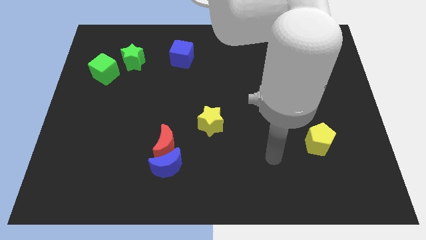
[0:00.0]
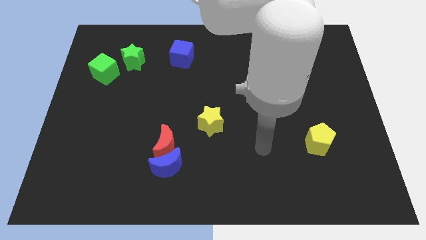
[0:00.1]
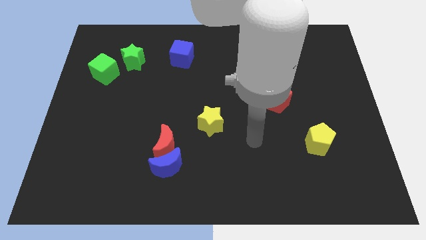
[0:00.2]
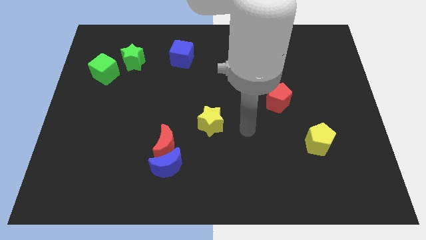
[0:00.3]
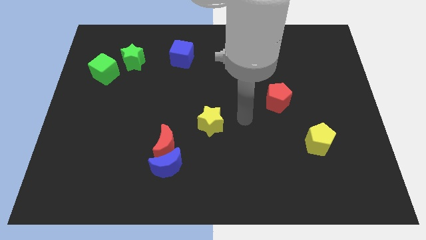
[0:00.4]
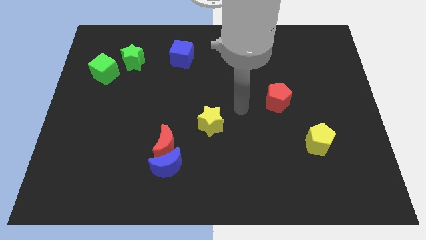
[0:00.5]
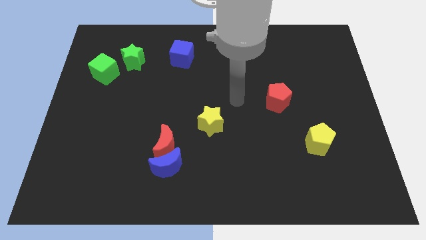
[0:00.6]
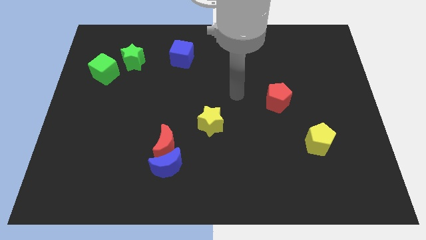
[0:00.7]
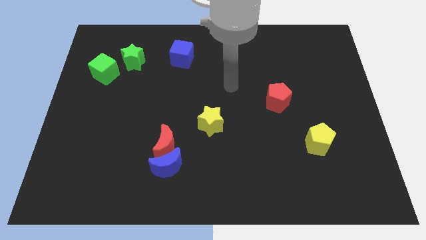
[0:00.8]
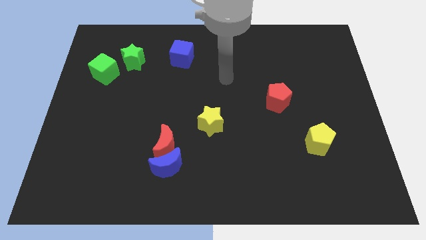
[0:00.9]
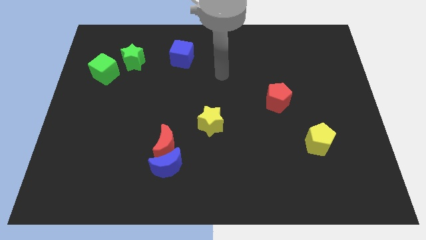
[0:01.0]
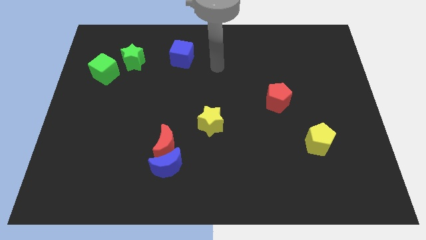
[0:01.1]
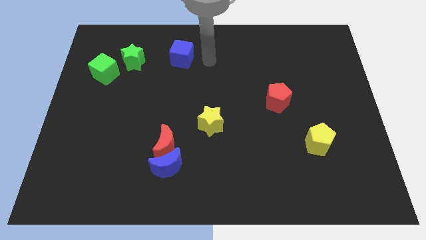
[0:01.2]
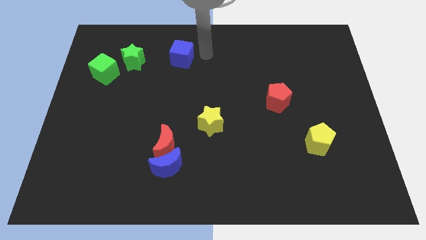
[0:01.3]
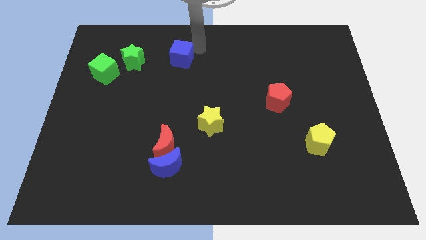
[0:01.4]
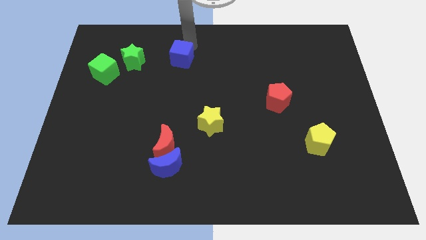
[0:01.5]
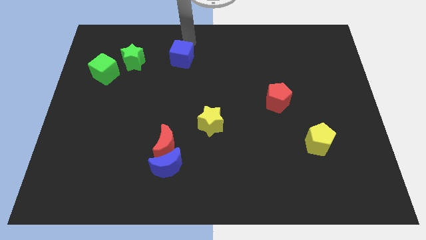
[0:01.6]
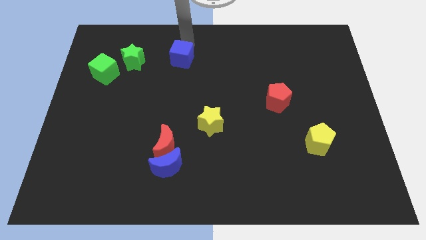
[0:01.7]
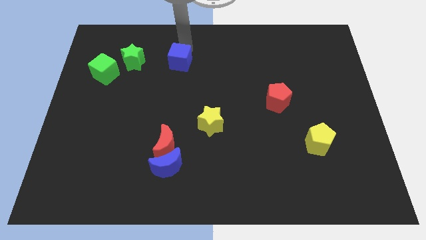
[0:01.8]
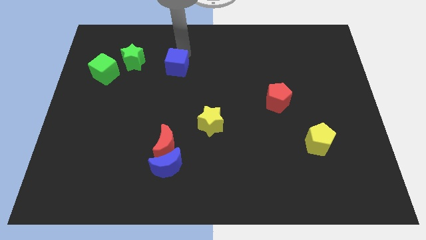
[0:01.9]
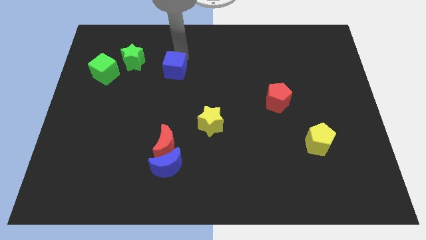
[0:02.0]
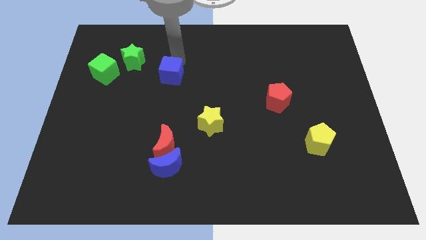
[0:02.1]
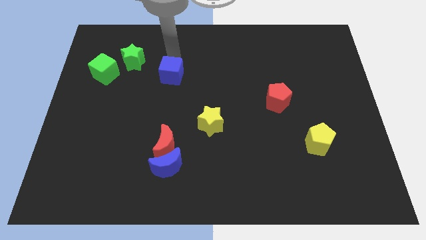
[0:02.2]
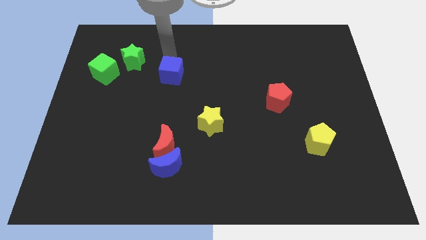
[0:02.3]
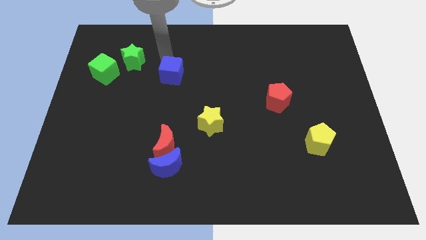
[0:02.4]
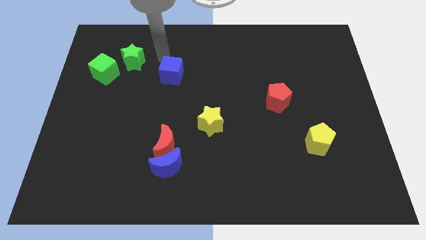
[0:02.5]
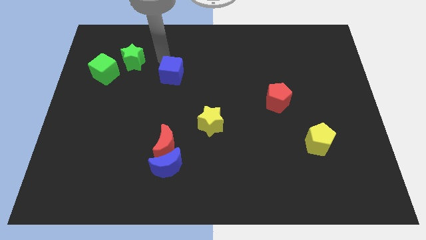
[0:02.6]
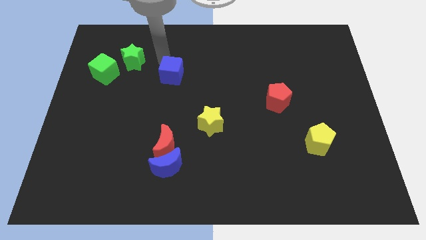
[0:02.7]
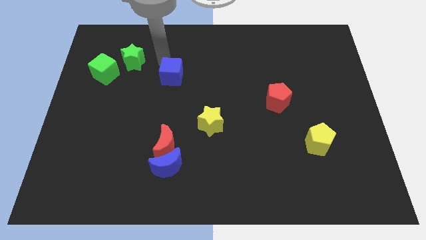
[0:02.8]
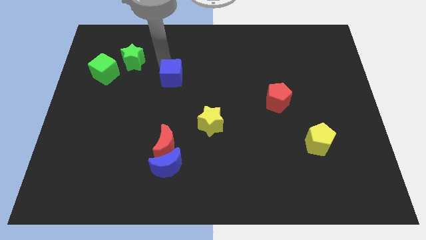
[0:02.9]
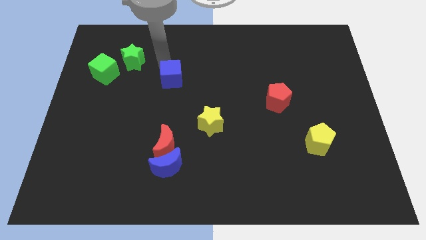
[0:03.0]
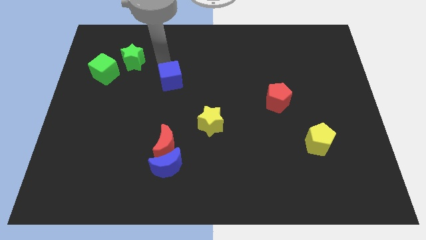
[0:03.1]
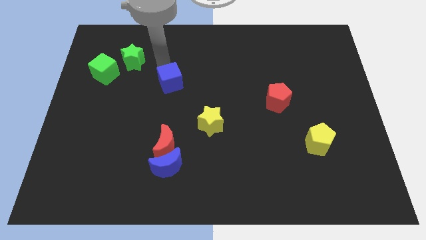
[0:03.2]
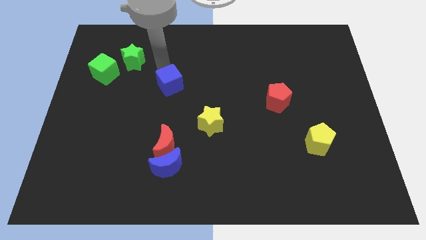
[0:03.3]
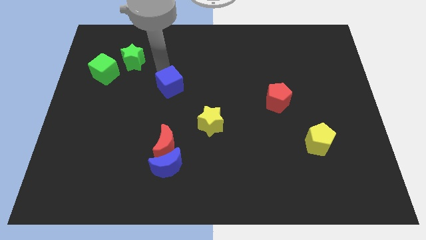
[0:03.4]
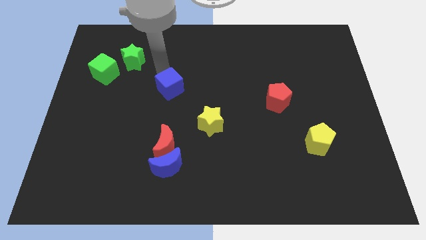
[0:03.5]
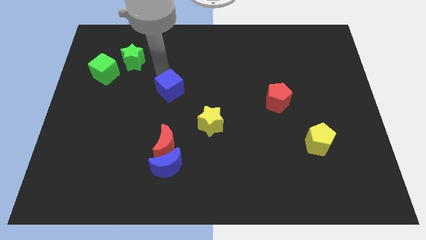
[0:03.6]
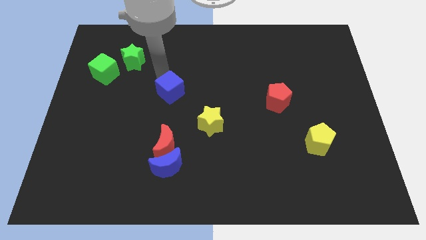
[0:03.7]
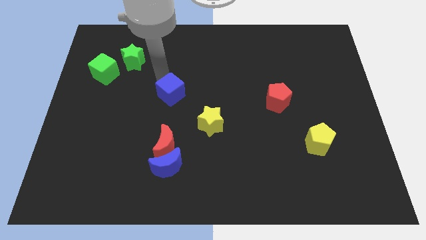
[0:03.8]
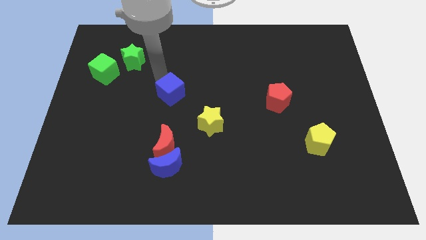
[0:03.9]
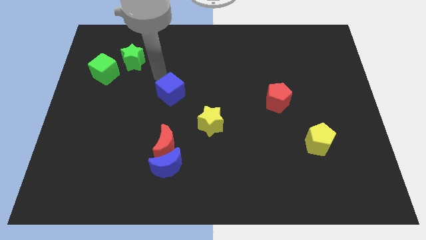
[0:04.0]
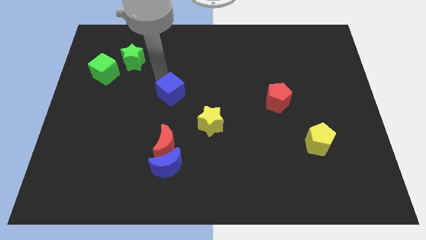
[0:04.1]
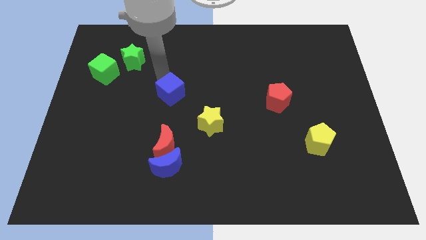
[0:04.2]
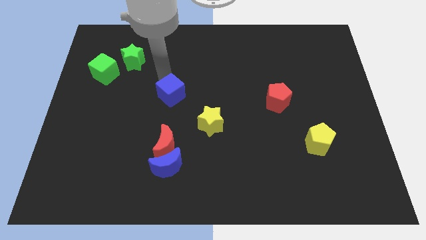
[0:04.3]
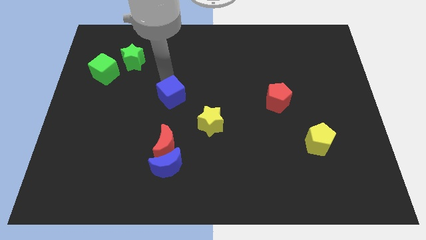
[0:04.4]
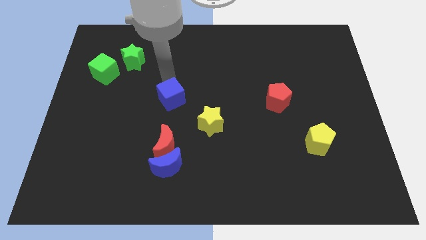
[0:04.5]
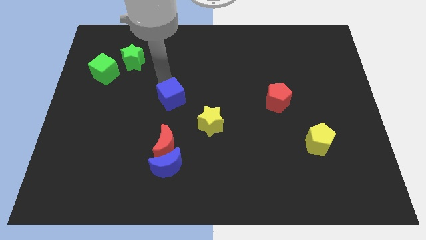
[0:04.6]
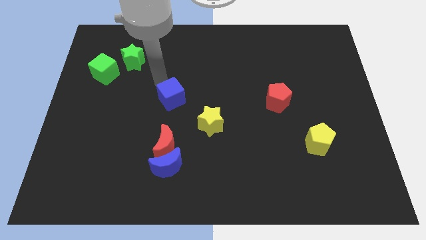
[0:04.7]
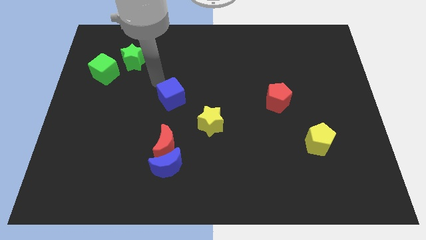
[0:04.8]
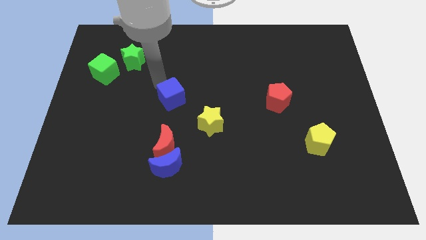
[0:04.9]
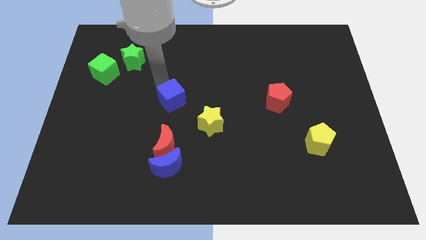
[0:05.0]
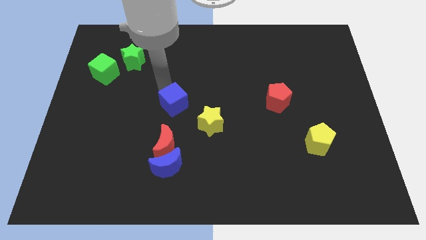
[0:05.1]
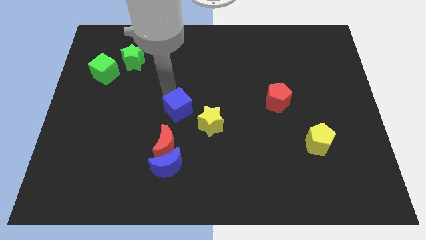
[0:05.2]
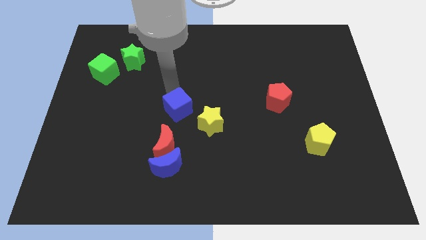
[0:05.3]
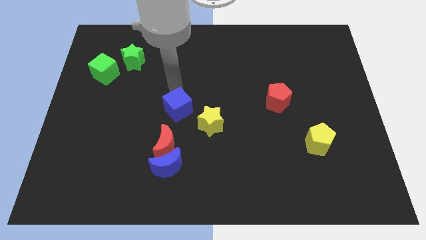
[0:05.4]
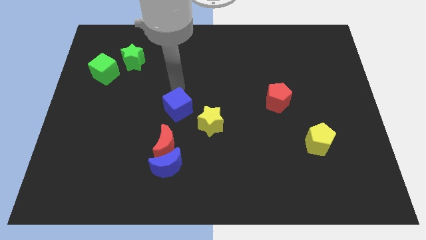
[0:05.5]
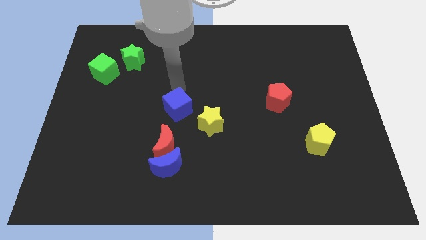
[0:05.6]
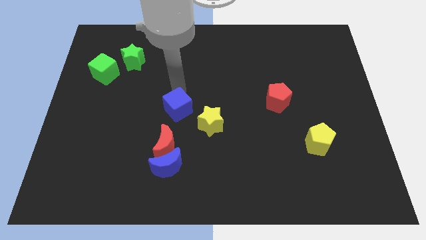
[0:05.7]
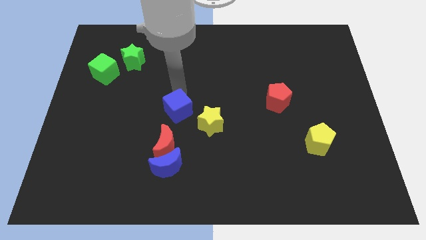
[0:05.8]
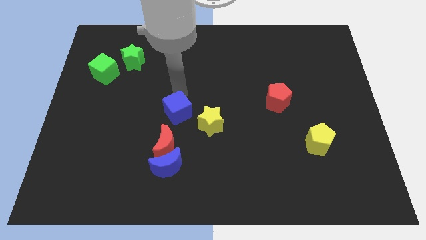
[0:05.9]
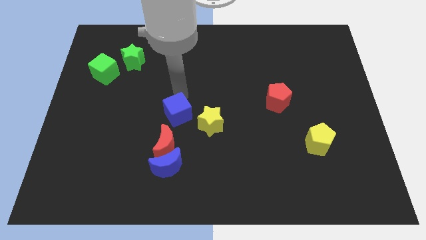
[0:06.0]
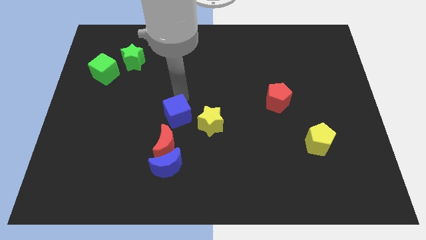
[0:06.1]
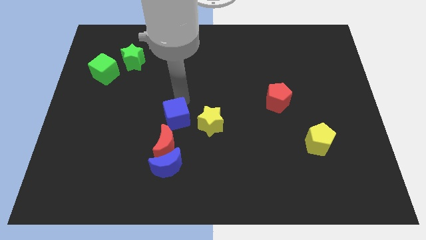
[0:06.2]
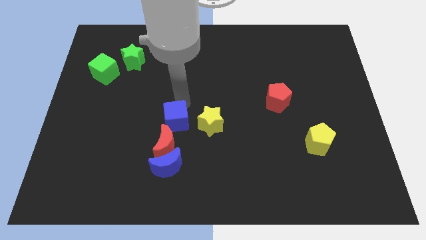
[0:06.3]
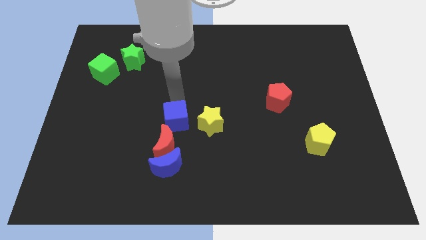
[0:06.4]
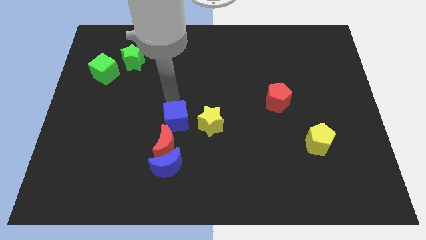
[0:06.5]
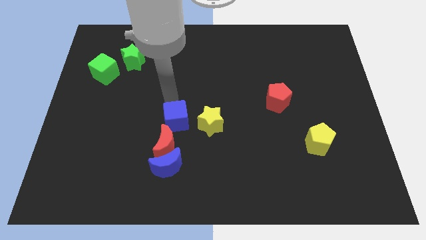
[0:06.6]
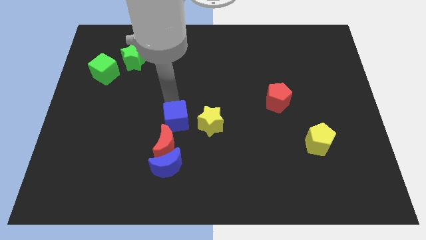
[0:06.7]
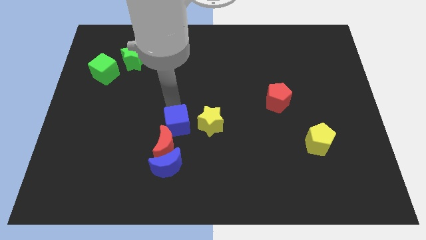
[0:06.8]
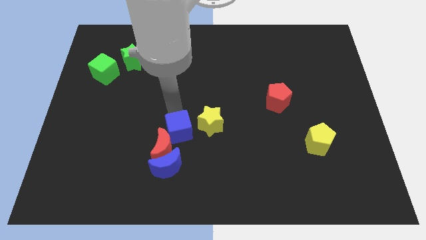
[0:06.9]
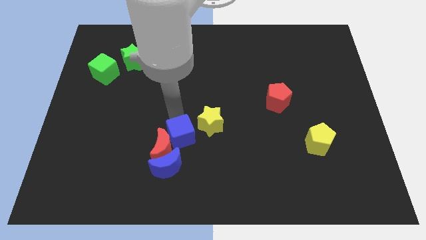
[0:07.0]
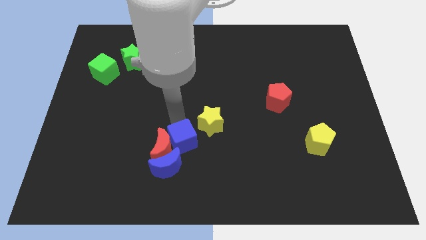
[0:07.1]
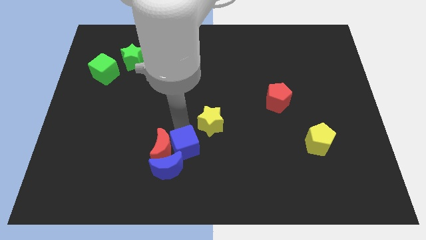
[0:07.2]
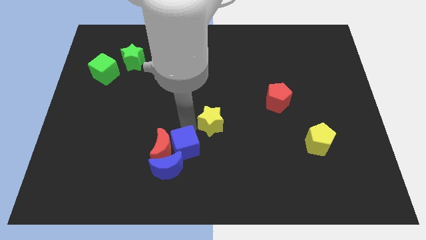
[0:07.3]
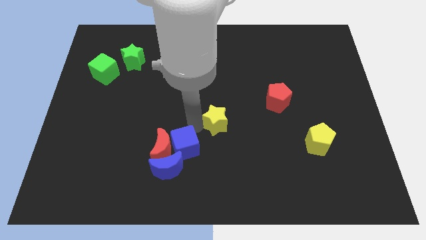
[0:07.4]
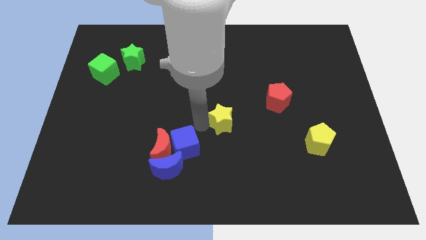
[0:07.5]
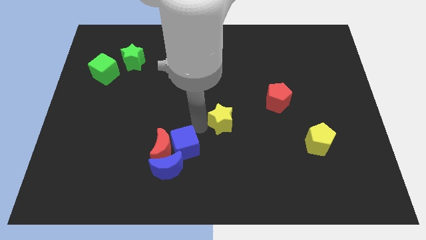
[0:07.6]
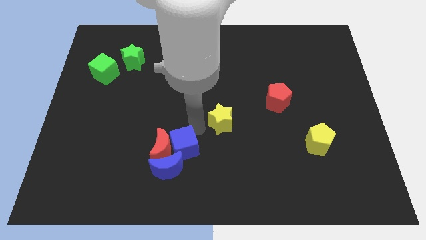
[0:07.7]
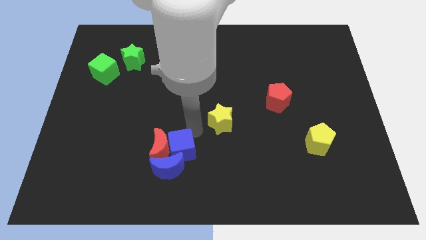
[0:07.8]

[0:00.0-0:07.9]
move the blue cube close to the blue moon
